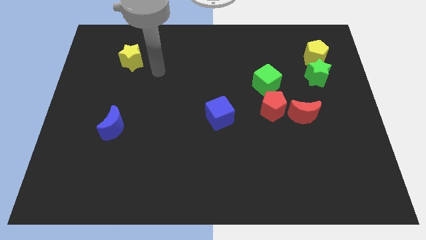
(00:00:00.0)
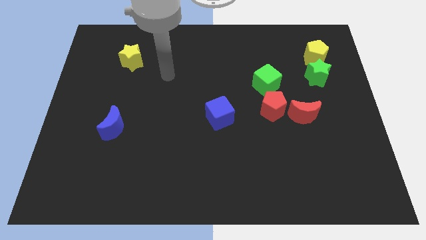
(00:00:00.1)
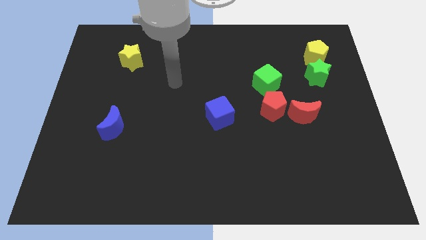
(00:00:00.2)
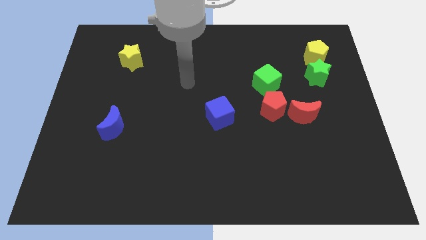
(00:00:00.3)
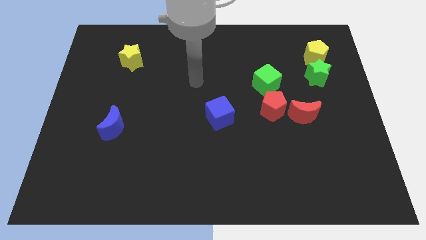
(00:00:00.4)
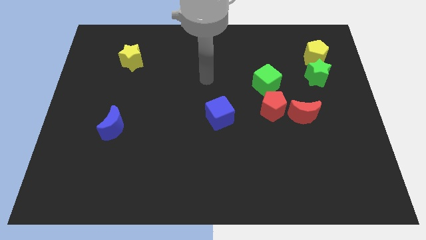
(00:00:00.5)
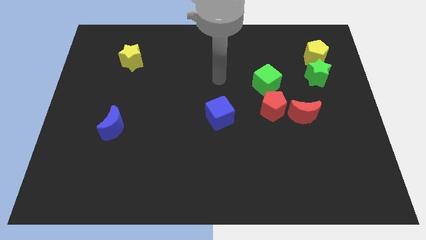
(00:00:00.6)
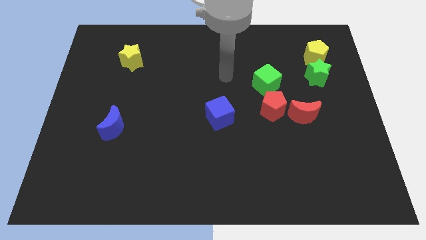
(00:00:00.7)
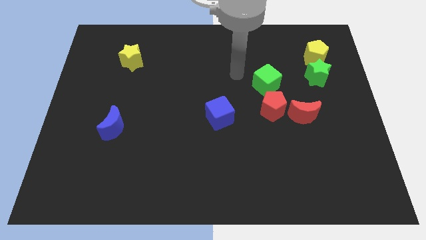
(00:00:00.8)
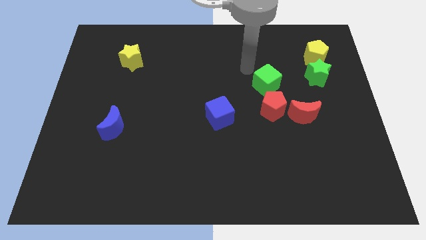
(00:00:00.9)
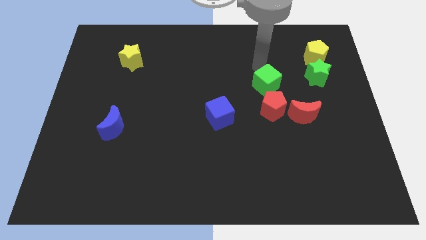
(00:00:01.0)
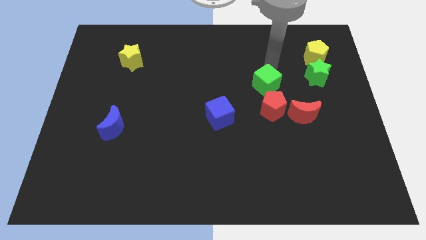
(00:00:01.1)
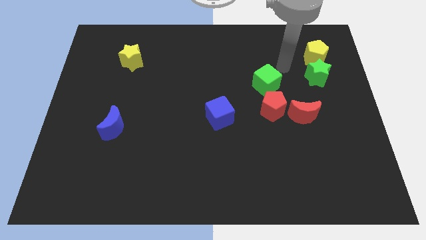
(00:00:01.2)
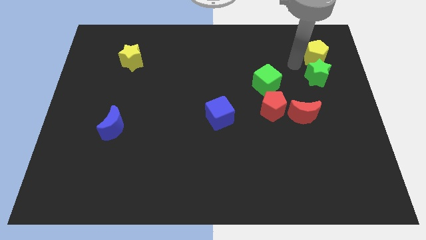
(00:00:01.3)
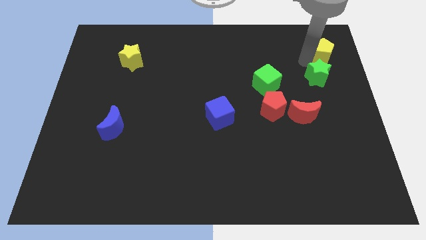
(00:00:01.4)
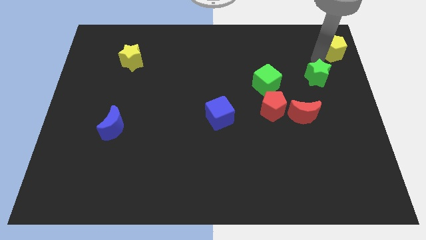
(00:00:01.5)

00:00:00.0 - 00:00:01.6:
move the green star away from the yellow pentagon

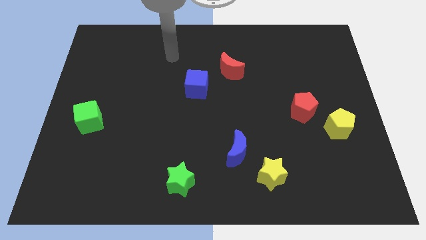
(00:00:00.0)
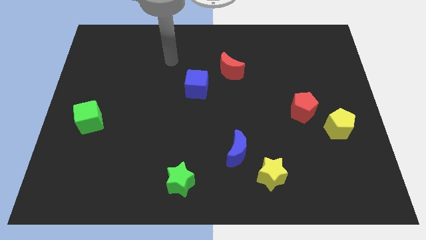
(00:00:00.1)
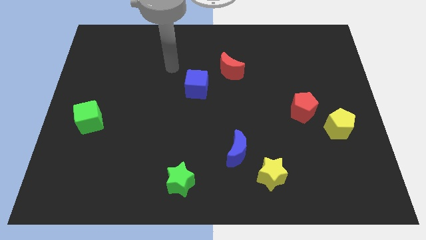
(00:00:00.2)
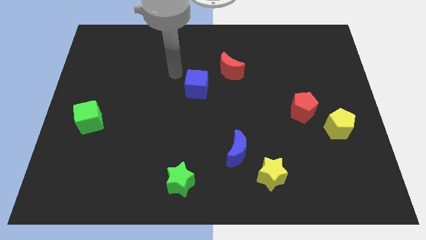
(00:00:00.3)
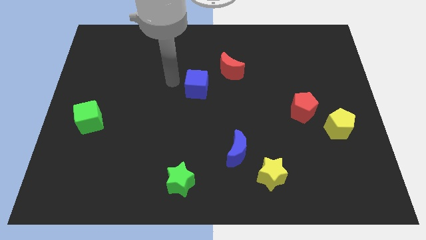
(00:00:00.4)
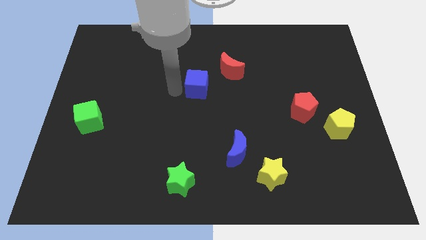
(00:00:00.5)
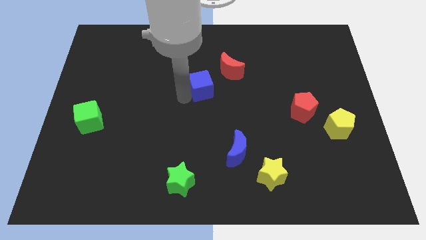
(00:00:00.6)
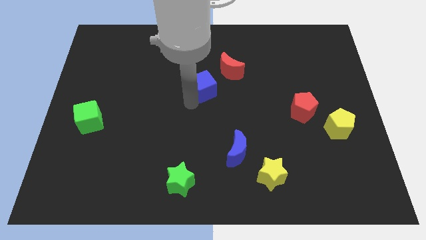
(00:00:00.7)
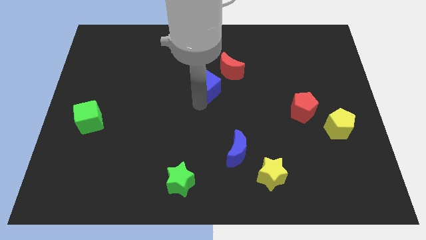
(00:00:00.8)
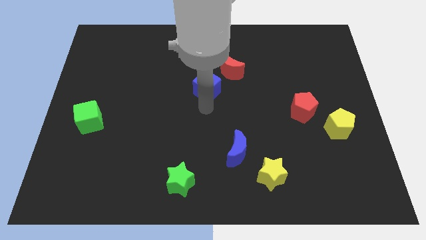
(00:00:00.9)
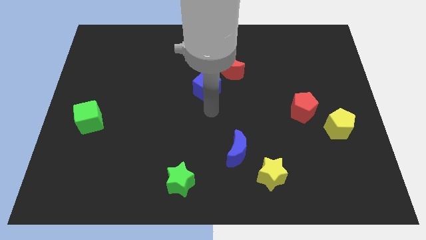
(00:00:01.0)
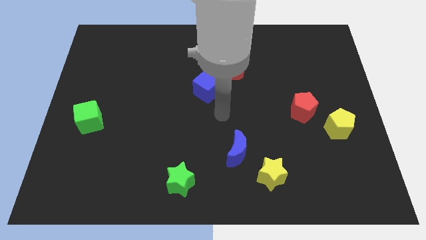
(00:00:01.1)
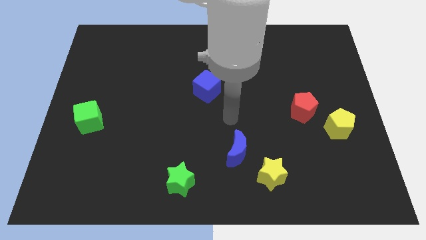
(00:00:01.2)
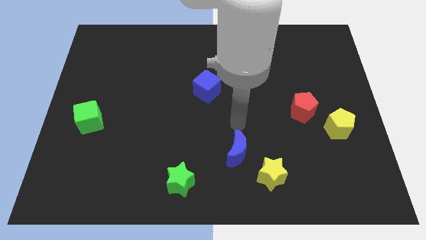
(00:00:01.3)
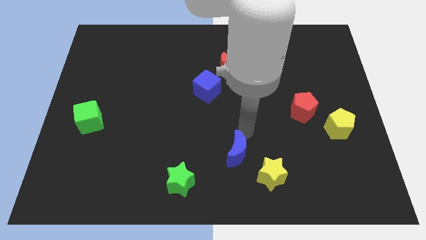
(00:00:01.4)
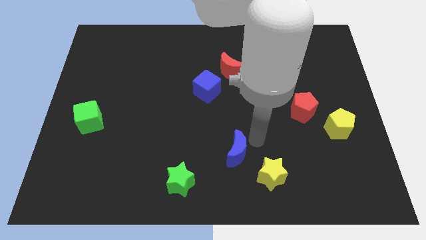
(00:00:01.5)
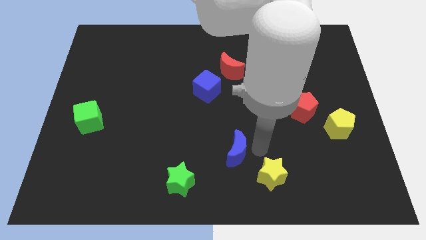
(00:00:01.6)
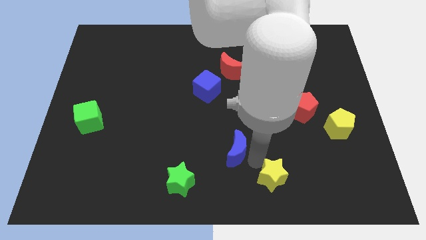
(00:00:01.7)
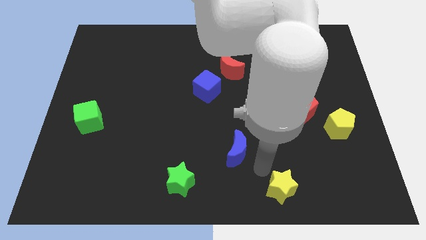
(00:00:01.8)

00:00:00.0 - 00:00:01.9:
move the blue moon away from the yellow star

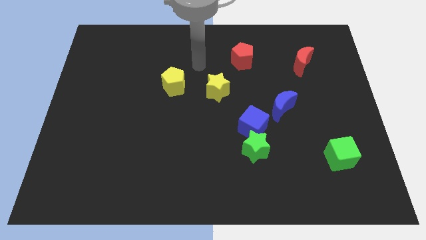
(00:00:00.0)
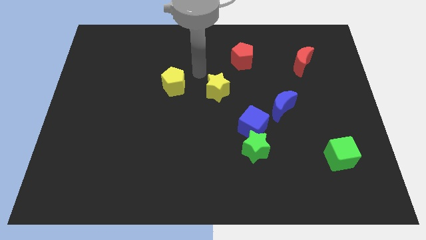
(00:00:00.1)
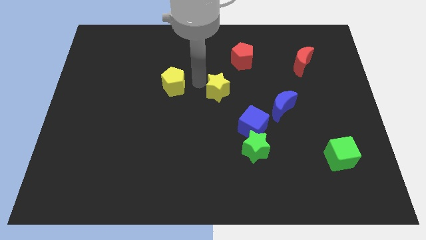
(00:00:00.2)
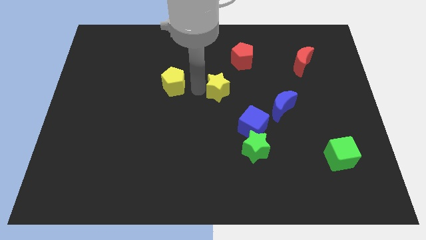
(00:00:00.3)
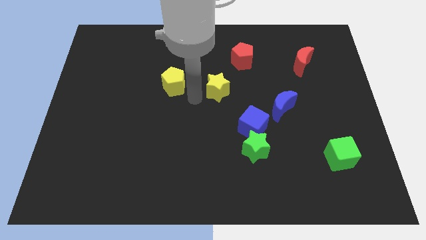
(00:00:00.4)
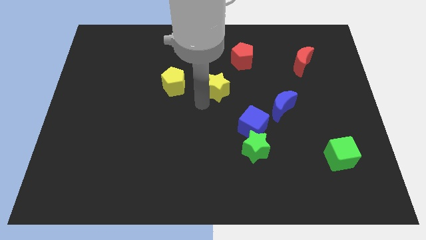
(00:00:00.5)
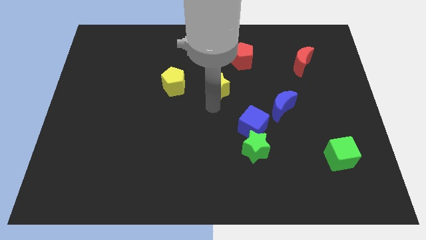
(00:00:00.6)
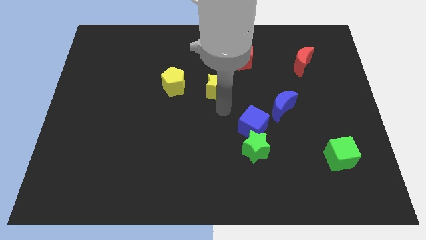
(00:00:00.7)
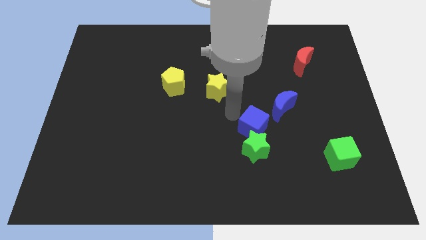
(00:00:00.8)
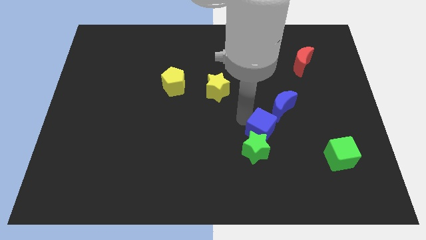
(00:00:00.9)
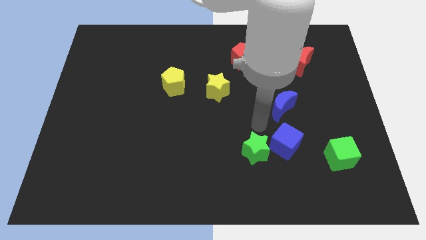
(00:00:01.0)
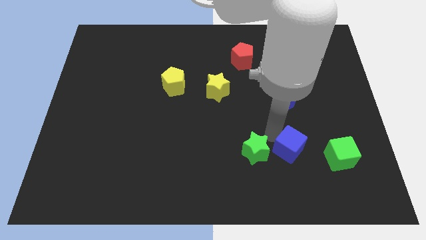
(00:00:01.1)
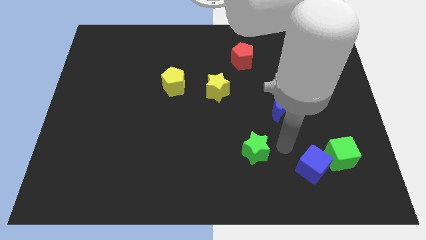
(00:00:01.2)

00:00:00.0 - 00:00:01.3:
pull the green star apart from the blue cube

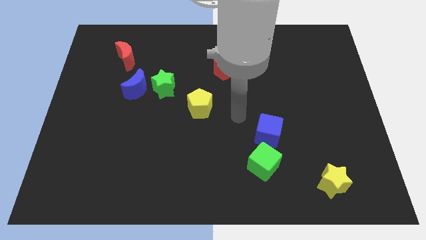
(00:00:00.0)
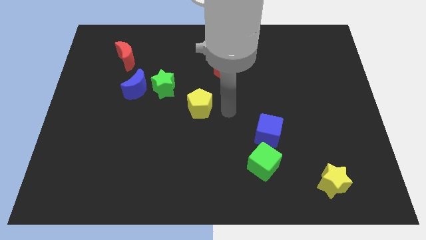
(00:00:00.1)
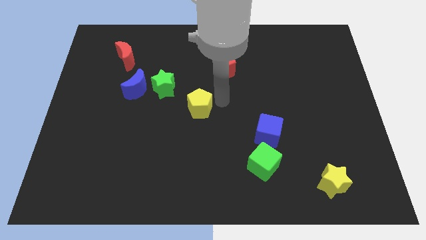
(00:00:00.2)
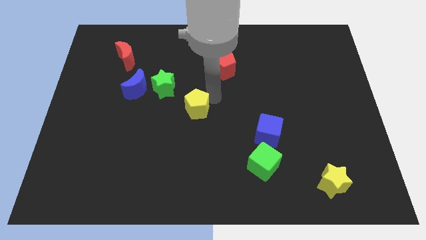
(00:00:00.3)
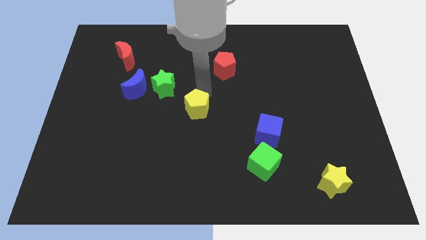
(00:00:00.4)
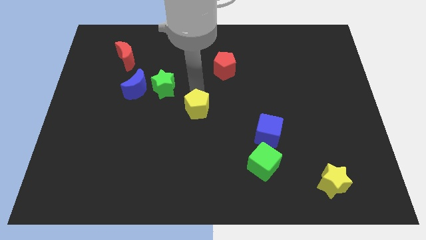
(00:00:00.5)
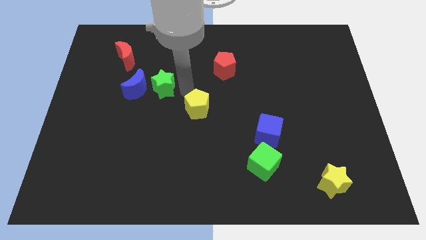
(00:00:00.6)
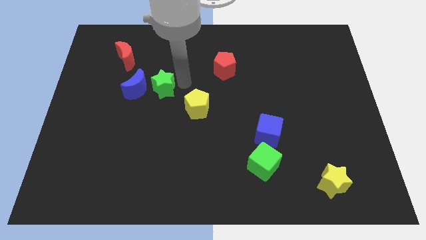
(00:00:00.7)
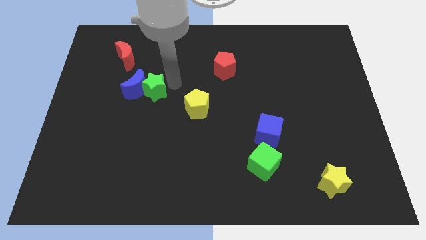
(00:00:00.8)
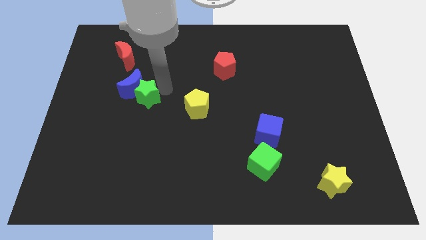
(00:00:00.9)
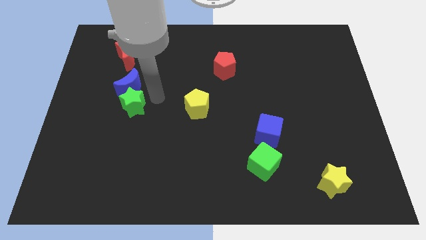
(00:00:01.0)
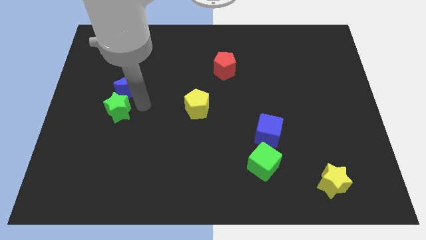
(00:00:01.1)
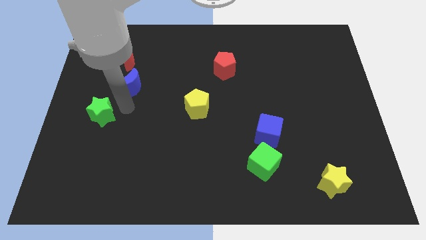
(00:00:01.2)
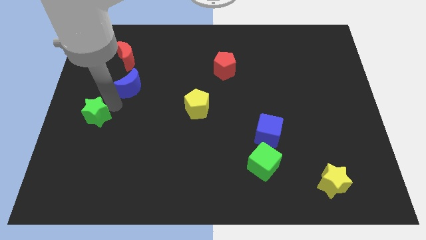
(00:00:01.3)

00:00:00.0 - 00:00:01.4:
pull the blue moon apart from the green star

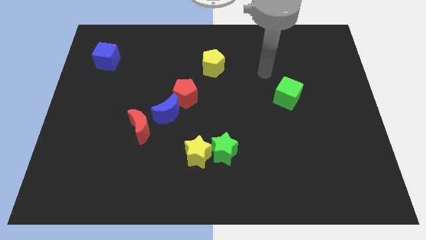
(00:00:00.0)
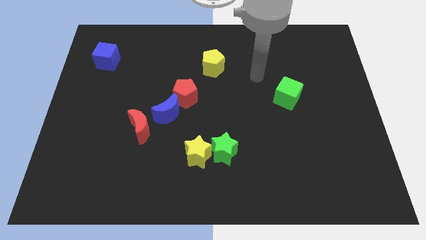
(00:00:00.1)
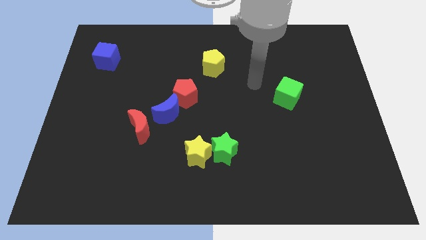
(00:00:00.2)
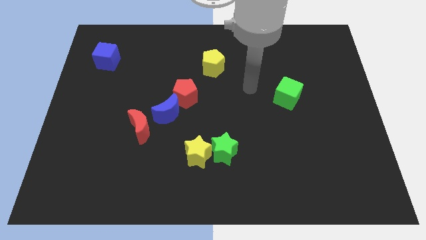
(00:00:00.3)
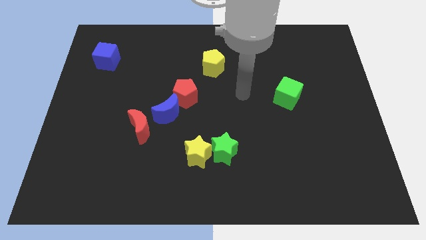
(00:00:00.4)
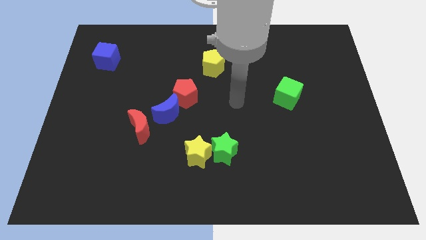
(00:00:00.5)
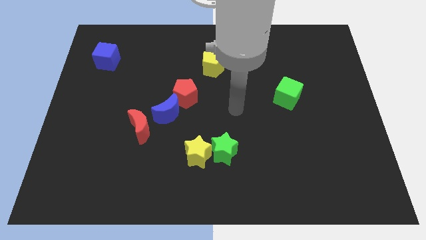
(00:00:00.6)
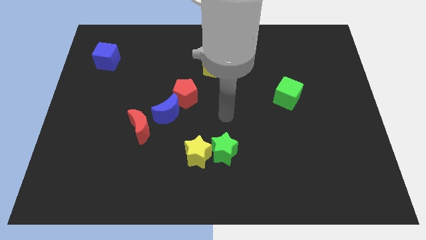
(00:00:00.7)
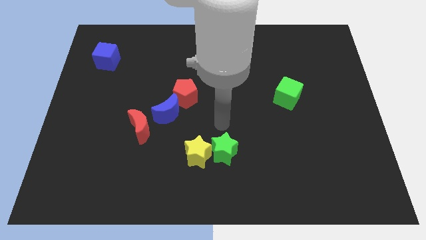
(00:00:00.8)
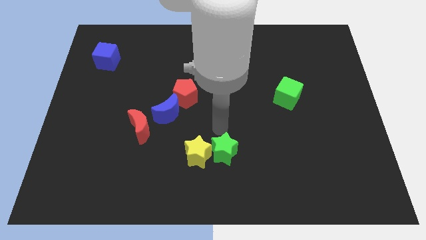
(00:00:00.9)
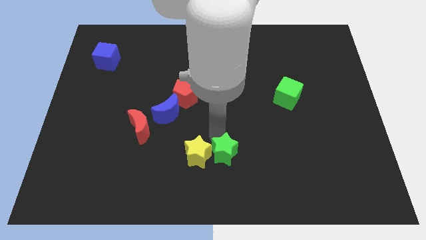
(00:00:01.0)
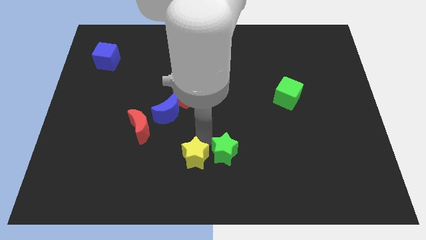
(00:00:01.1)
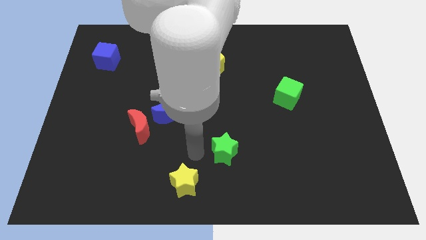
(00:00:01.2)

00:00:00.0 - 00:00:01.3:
pull the green star apart from the yellow star

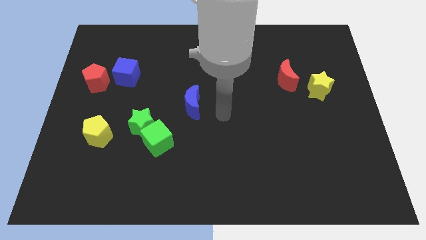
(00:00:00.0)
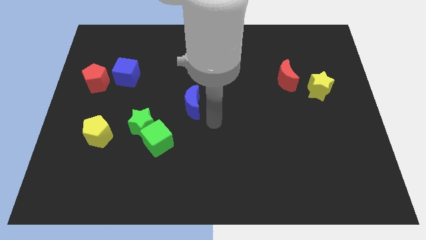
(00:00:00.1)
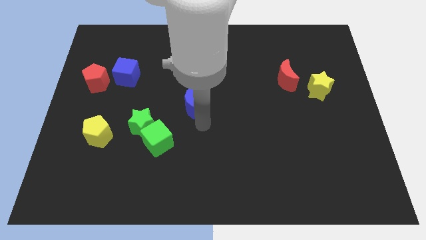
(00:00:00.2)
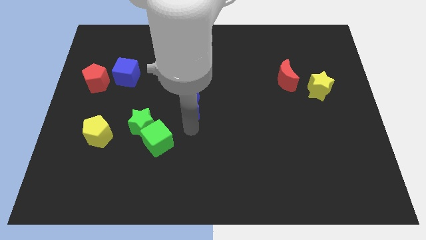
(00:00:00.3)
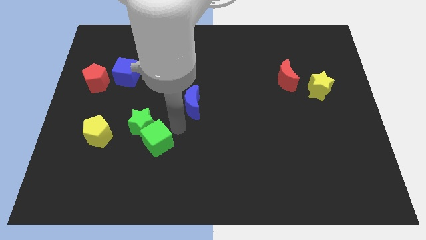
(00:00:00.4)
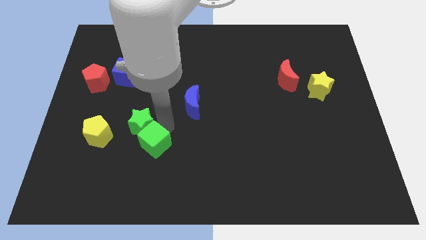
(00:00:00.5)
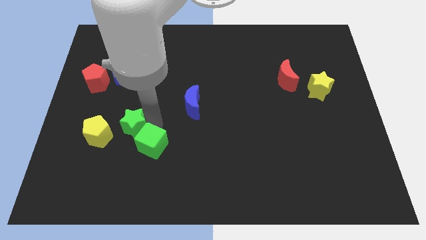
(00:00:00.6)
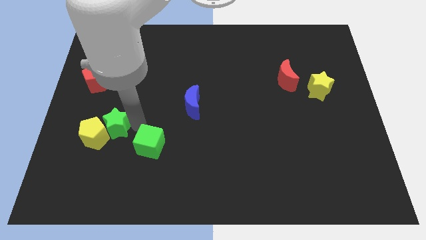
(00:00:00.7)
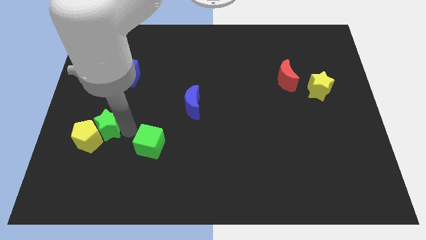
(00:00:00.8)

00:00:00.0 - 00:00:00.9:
pull the green cube apart from the green star

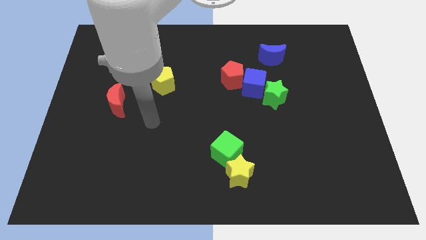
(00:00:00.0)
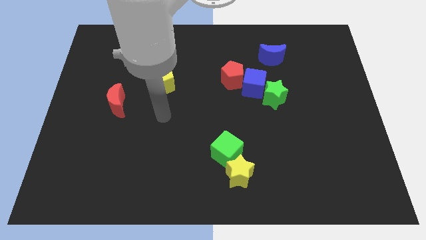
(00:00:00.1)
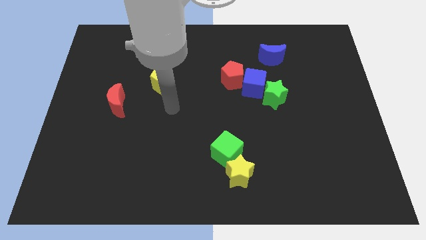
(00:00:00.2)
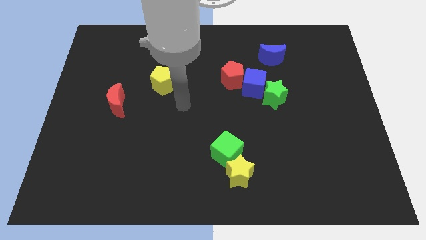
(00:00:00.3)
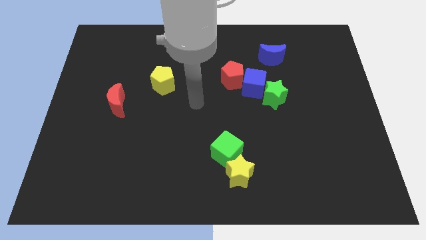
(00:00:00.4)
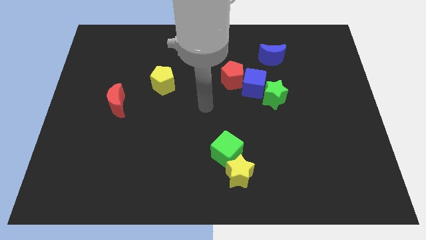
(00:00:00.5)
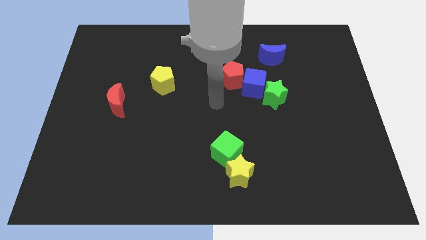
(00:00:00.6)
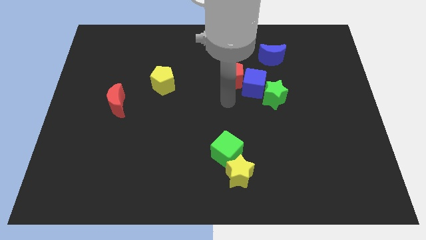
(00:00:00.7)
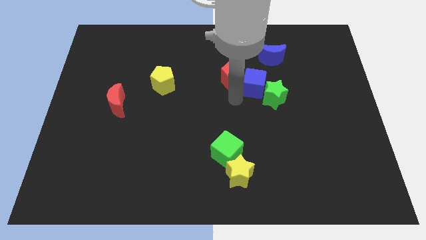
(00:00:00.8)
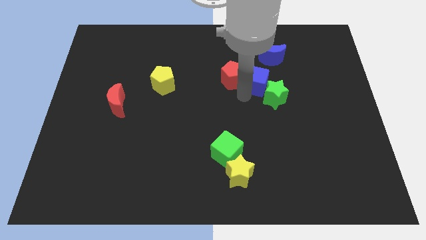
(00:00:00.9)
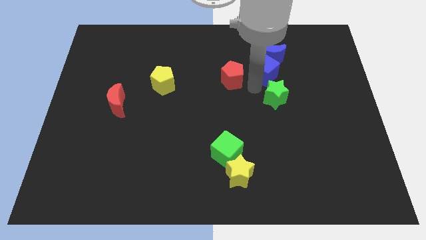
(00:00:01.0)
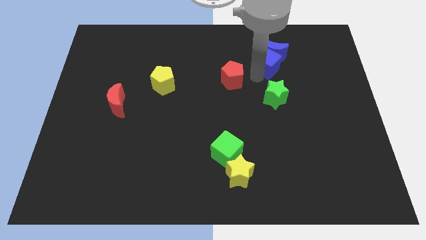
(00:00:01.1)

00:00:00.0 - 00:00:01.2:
pull the red pentagon apart from the blue cube
